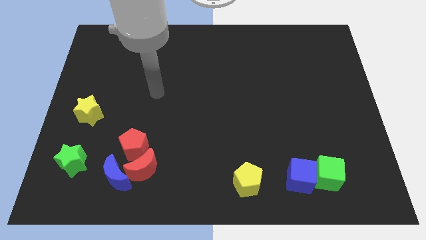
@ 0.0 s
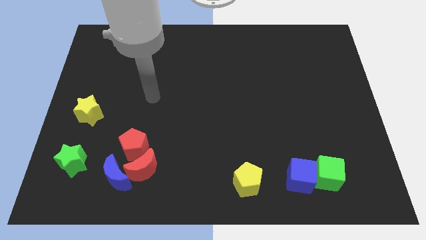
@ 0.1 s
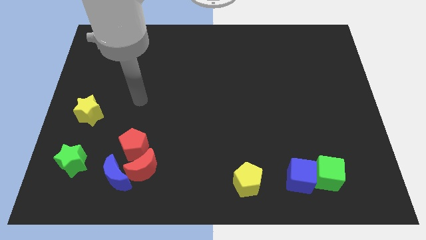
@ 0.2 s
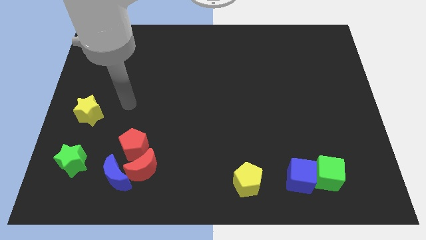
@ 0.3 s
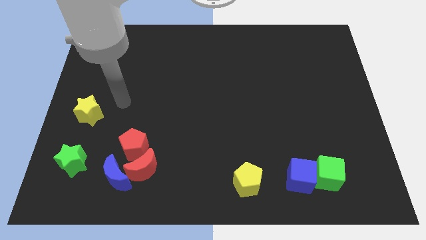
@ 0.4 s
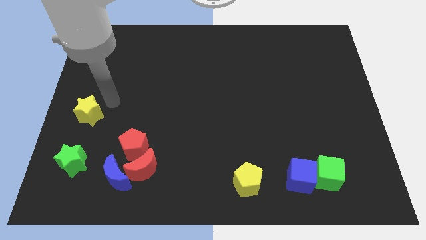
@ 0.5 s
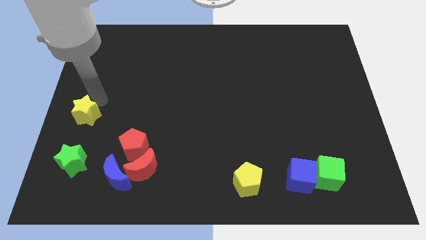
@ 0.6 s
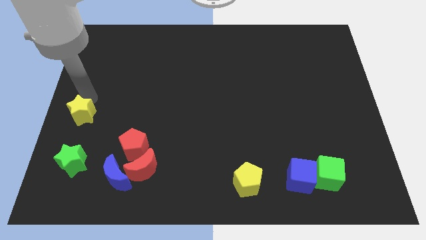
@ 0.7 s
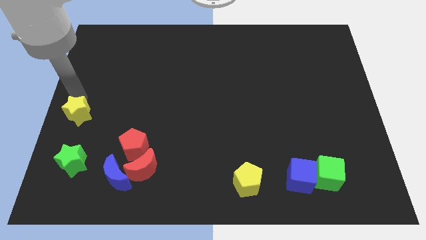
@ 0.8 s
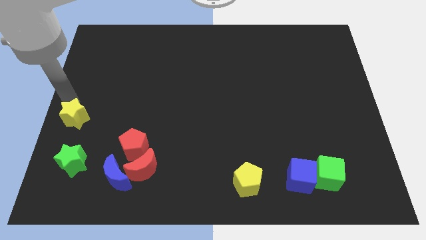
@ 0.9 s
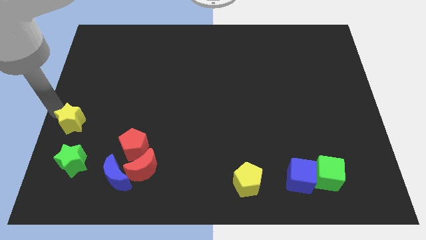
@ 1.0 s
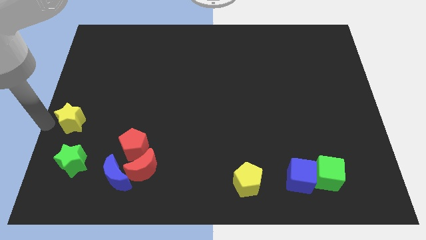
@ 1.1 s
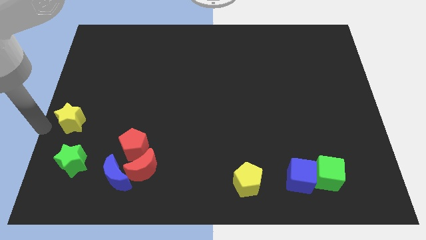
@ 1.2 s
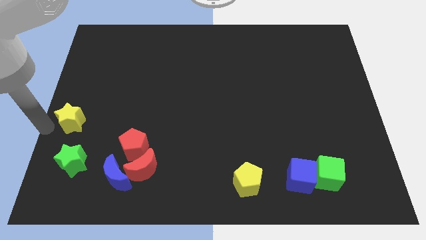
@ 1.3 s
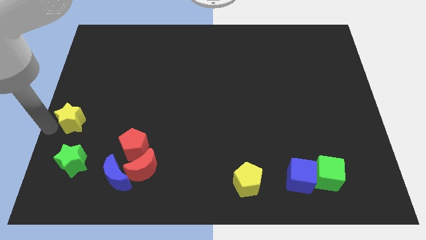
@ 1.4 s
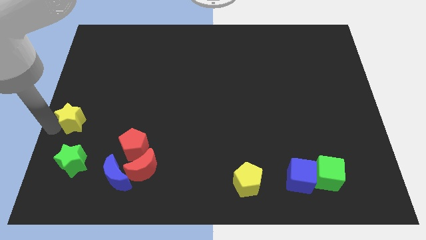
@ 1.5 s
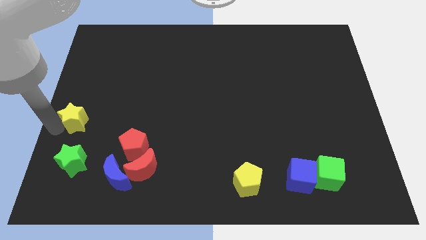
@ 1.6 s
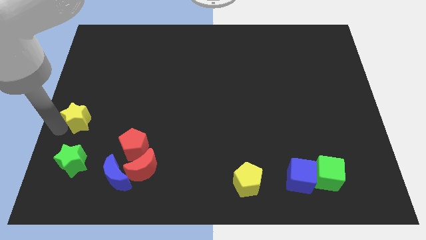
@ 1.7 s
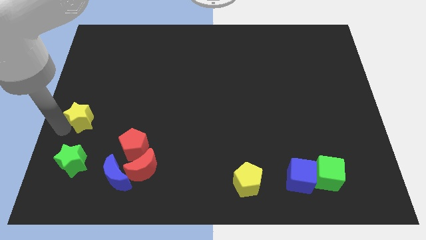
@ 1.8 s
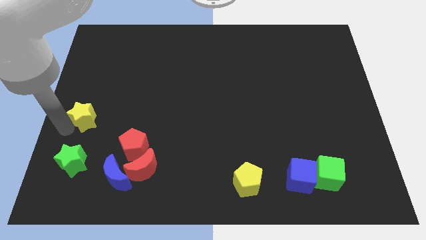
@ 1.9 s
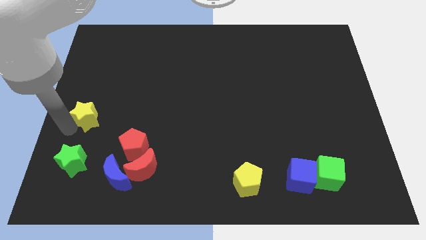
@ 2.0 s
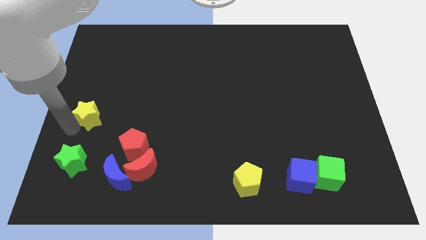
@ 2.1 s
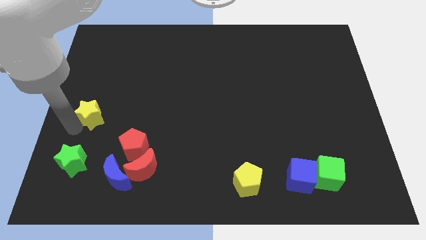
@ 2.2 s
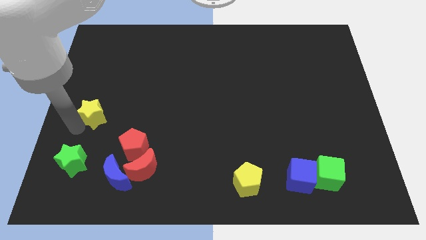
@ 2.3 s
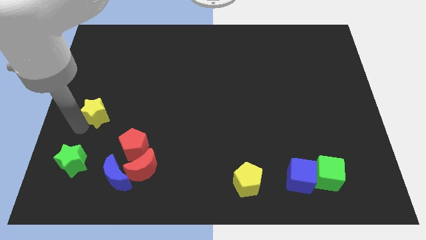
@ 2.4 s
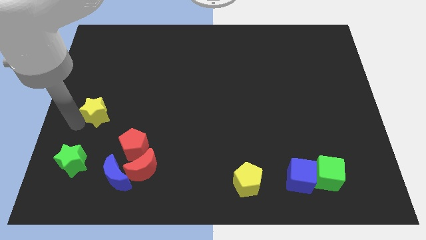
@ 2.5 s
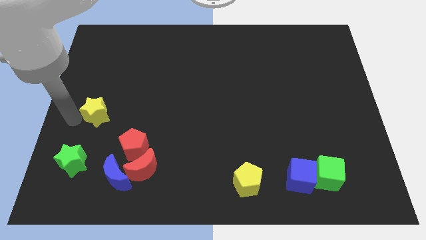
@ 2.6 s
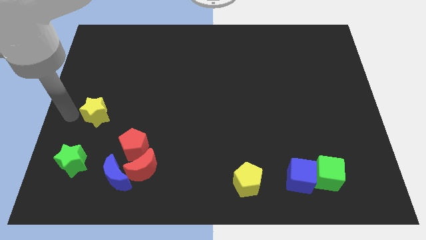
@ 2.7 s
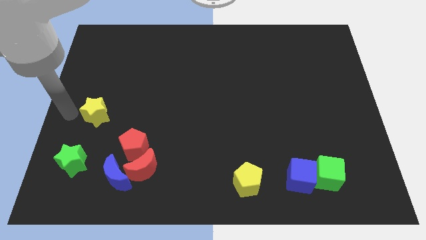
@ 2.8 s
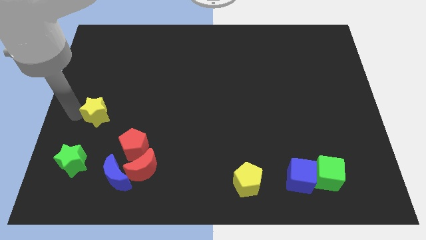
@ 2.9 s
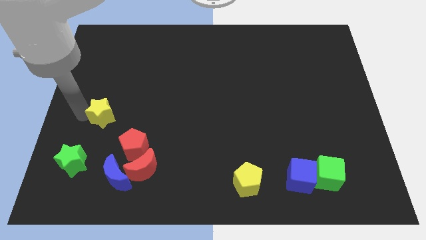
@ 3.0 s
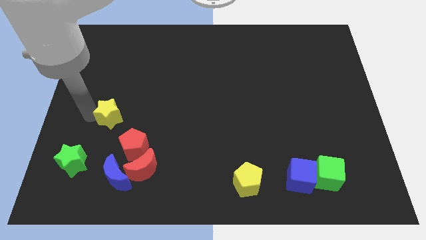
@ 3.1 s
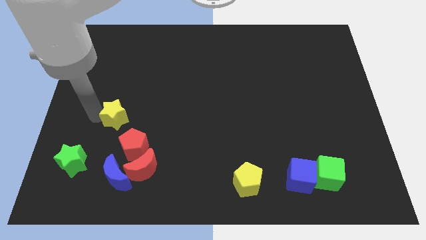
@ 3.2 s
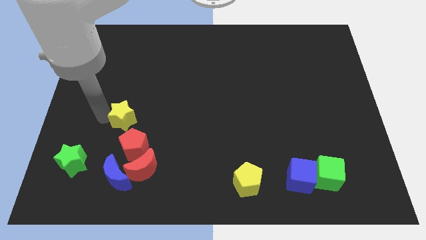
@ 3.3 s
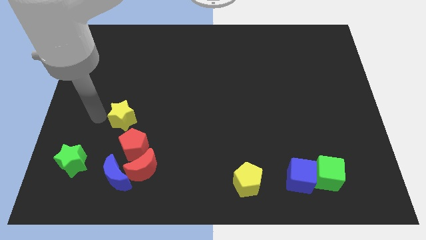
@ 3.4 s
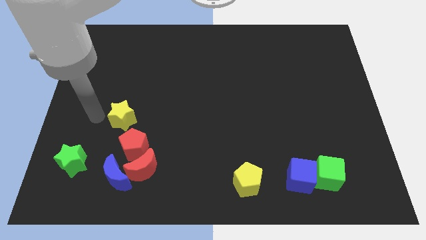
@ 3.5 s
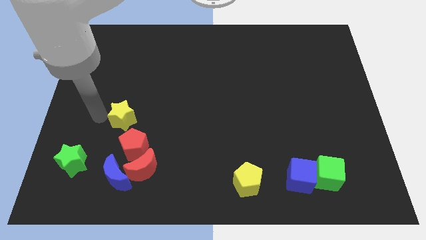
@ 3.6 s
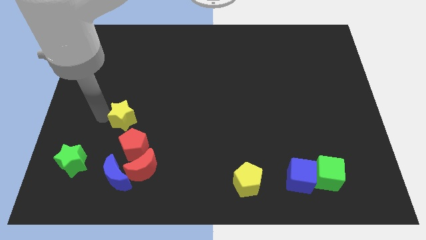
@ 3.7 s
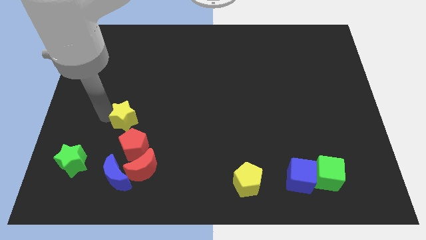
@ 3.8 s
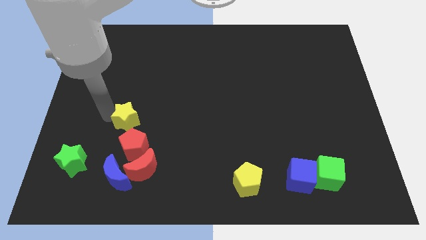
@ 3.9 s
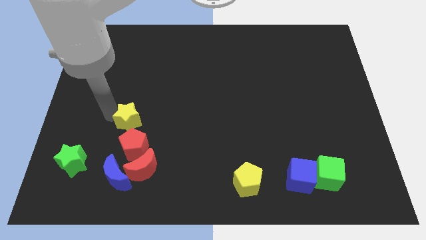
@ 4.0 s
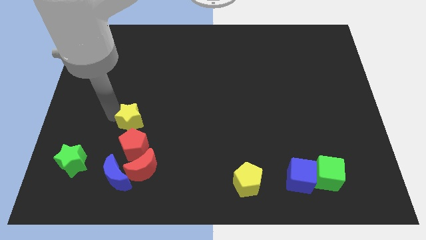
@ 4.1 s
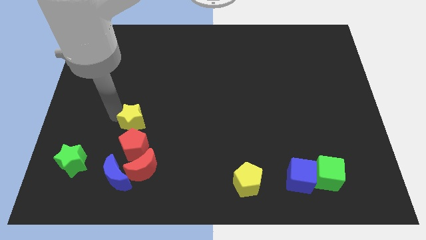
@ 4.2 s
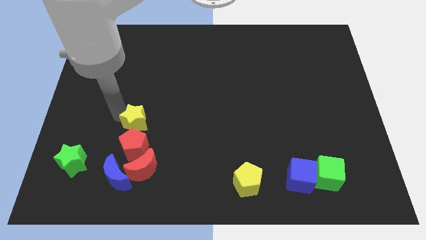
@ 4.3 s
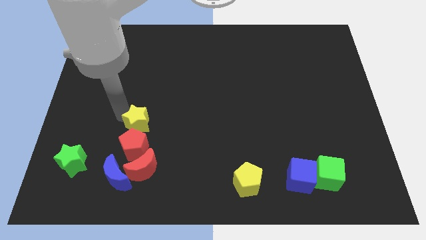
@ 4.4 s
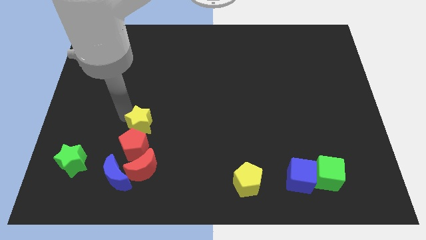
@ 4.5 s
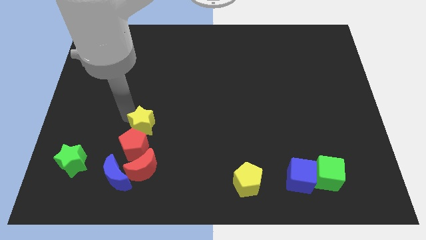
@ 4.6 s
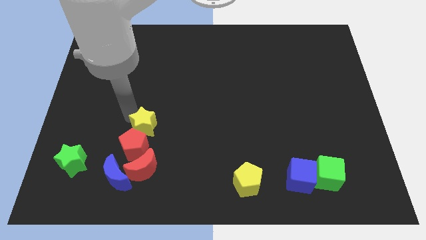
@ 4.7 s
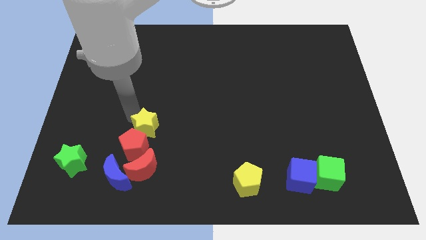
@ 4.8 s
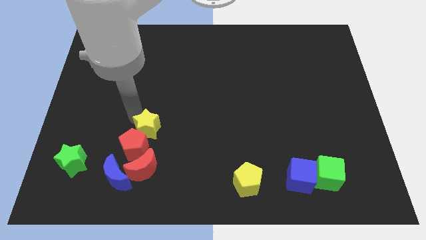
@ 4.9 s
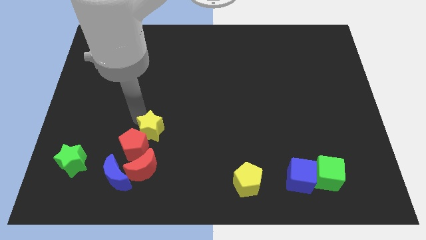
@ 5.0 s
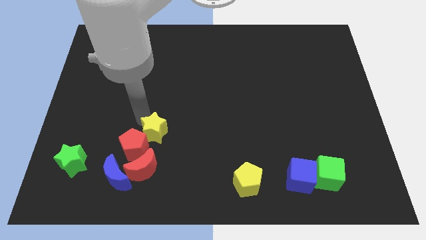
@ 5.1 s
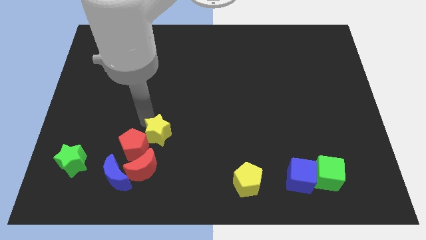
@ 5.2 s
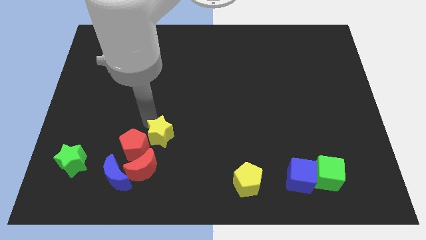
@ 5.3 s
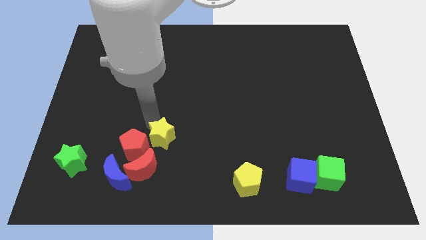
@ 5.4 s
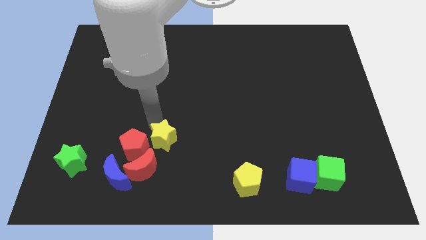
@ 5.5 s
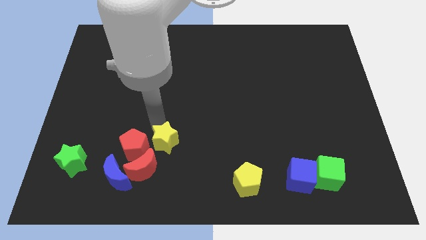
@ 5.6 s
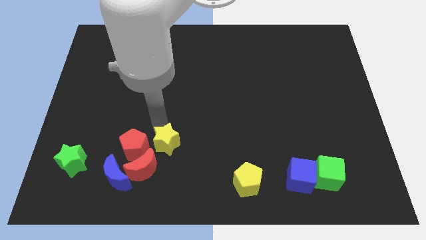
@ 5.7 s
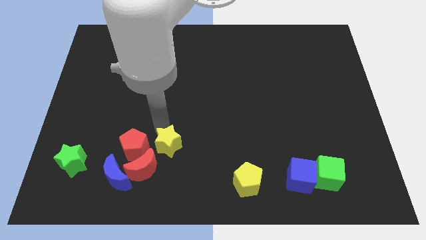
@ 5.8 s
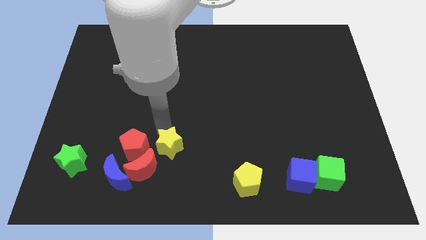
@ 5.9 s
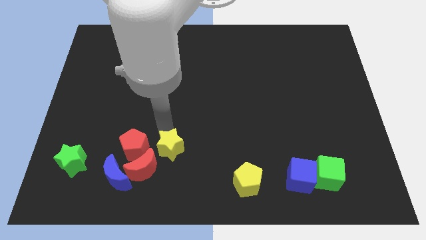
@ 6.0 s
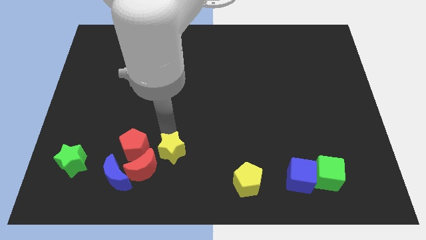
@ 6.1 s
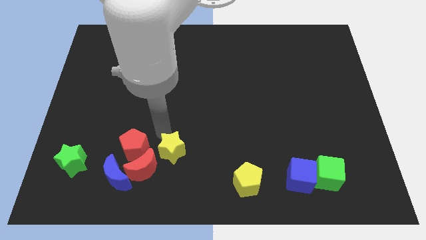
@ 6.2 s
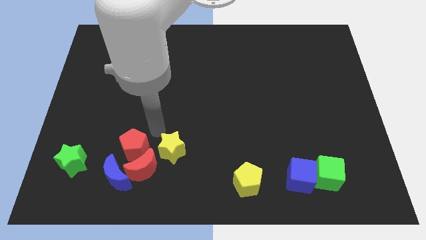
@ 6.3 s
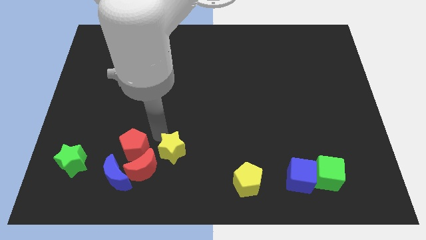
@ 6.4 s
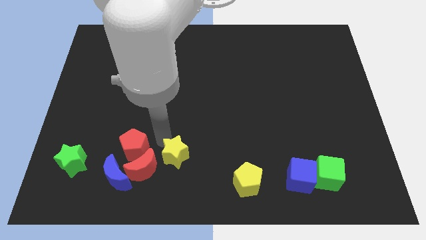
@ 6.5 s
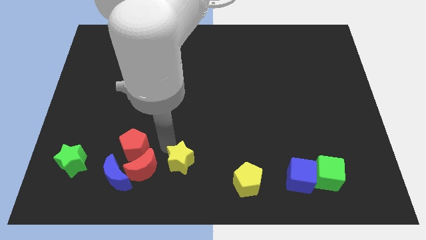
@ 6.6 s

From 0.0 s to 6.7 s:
put the yellow star to the bottom side

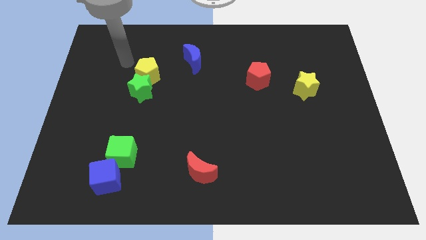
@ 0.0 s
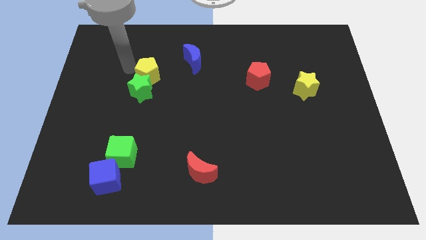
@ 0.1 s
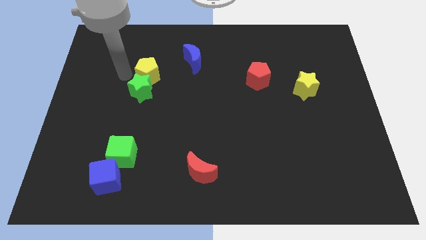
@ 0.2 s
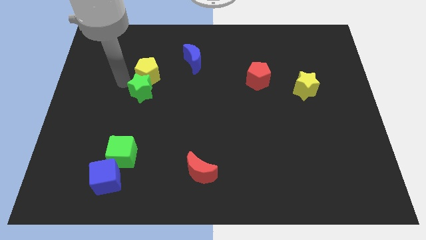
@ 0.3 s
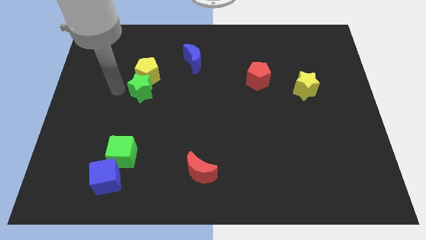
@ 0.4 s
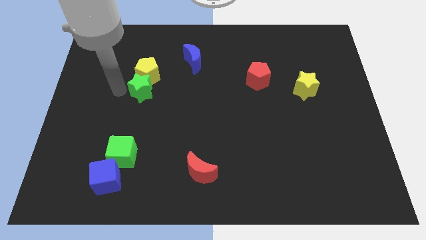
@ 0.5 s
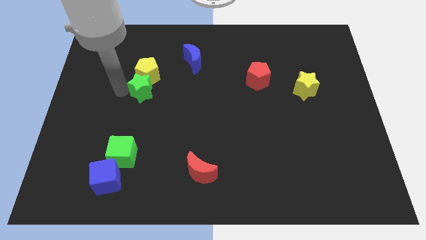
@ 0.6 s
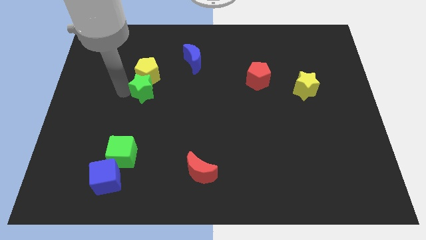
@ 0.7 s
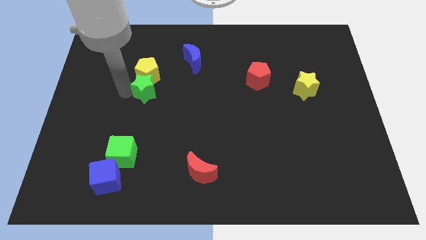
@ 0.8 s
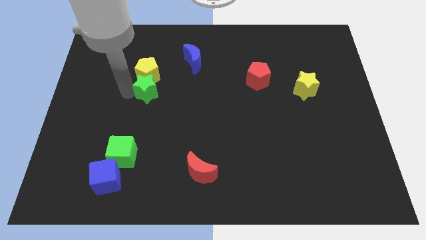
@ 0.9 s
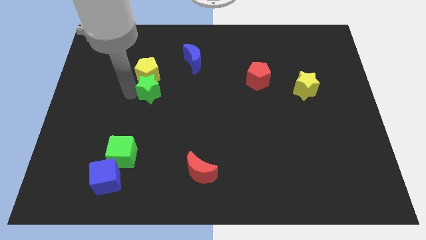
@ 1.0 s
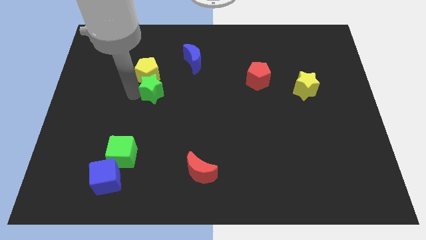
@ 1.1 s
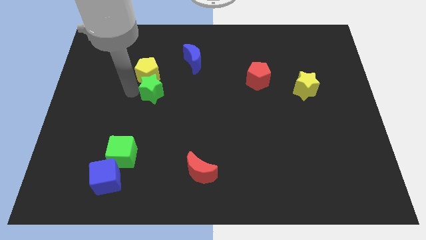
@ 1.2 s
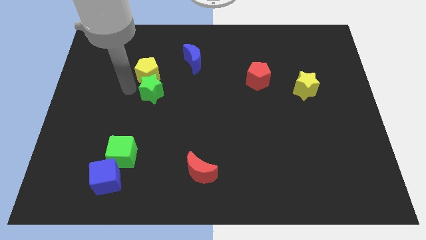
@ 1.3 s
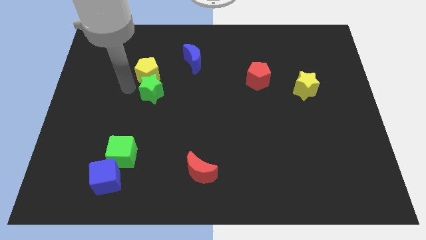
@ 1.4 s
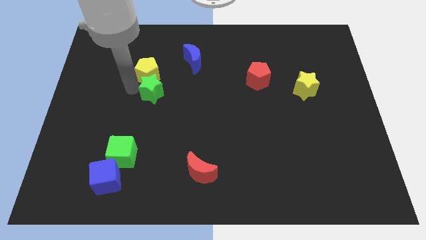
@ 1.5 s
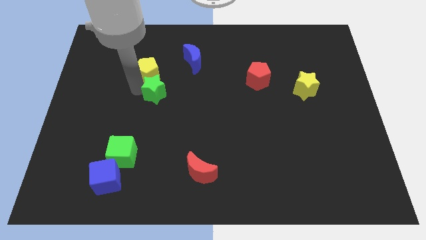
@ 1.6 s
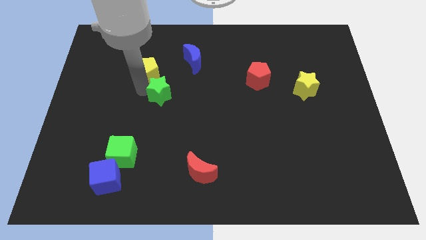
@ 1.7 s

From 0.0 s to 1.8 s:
push the green star to the middle of the board
